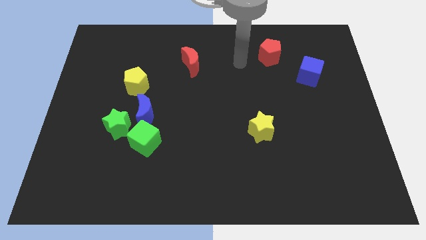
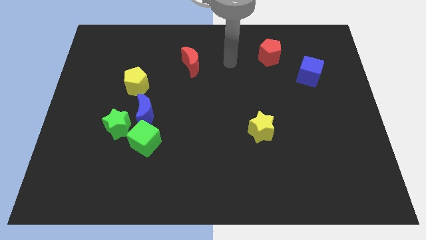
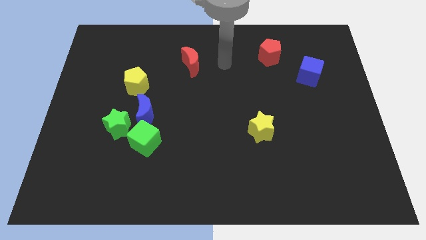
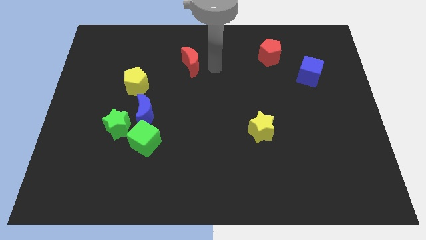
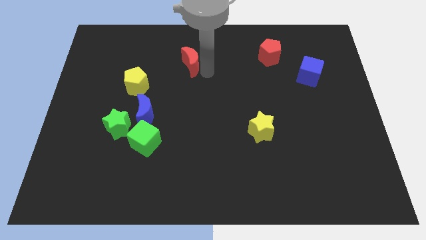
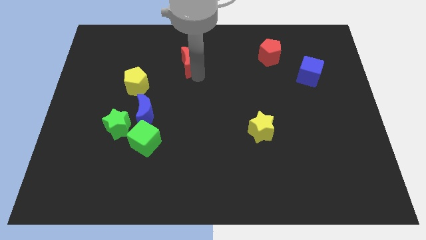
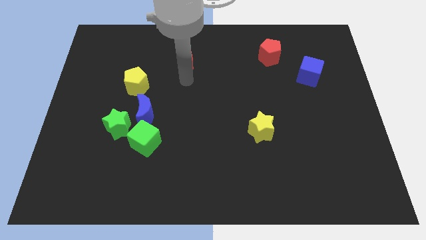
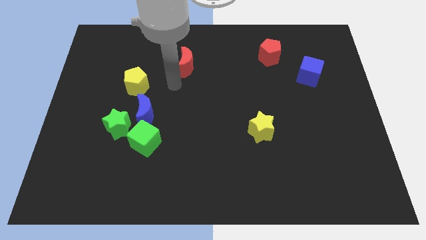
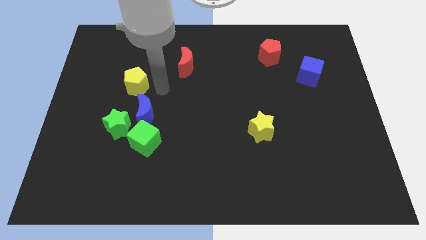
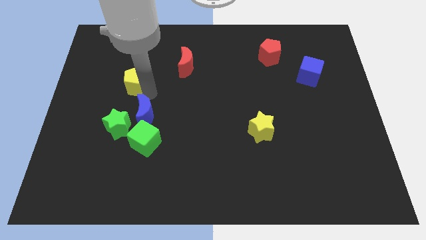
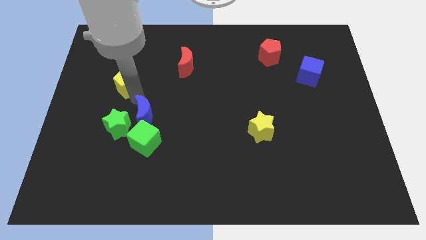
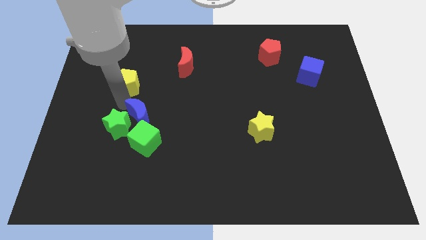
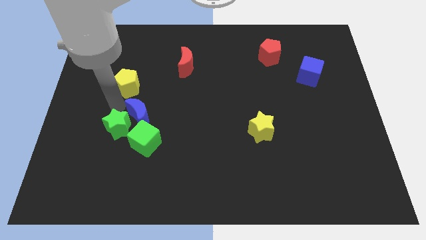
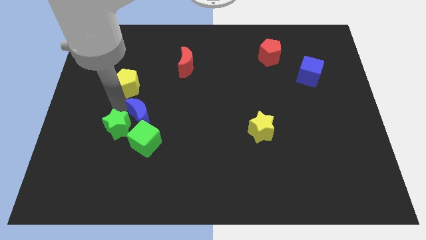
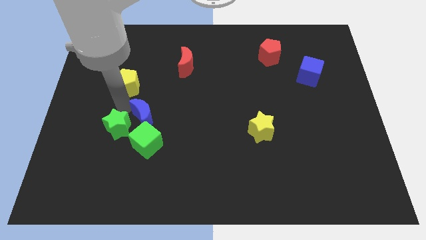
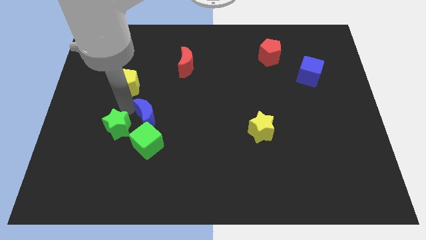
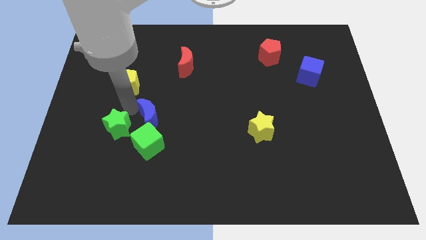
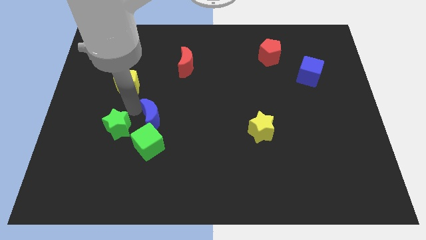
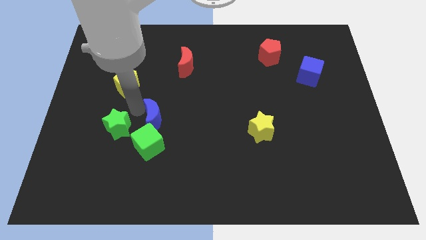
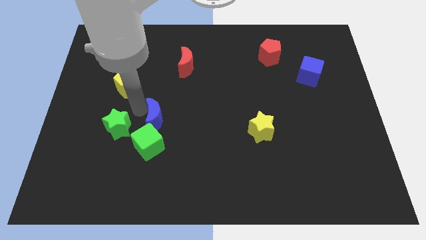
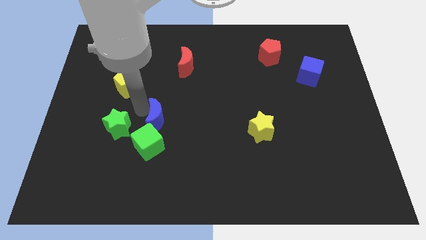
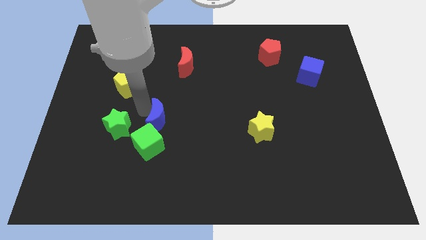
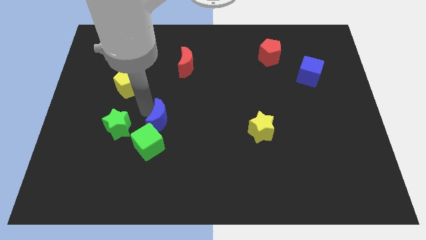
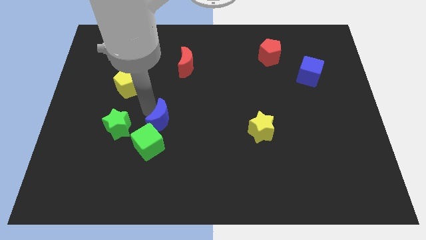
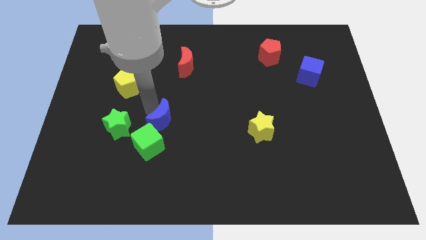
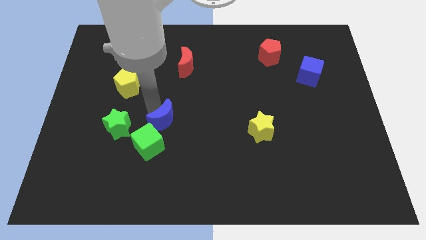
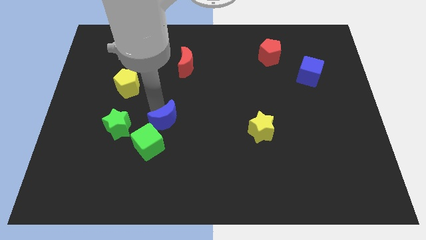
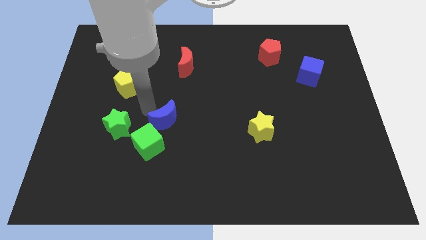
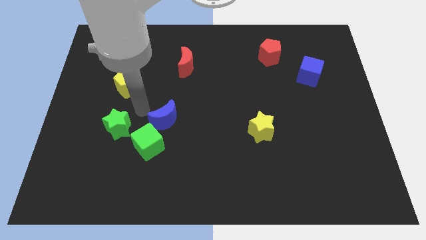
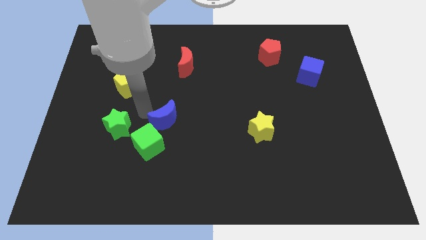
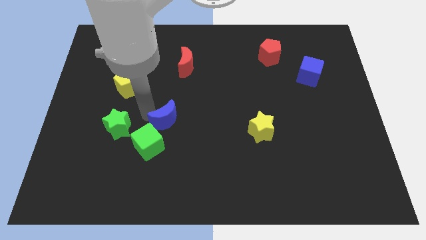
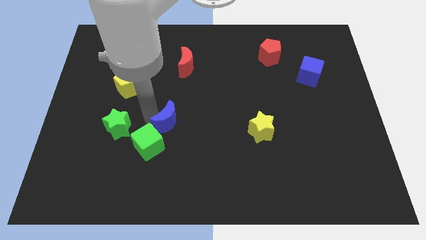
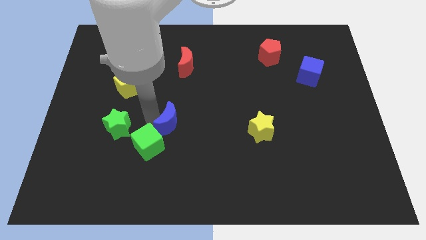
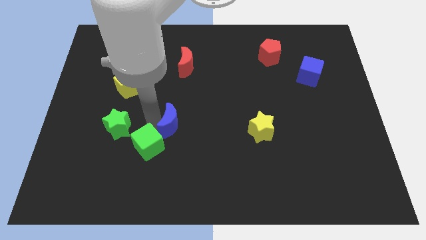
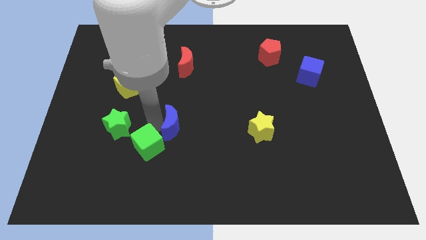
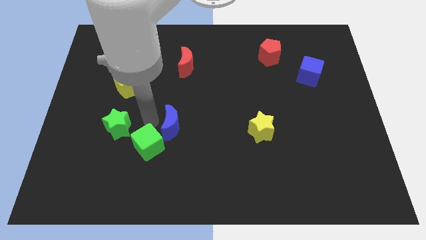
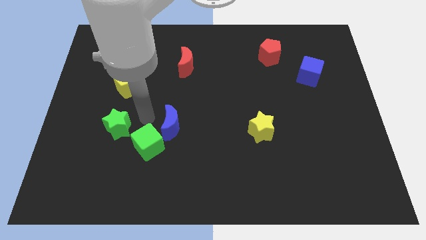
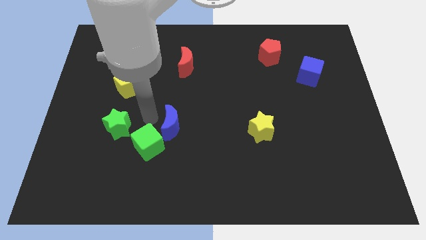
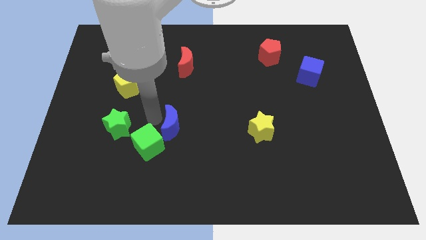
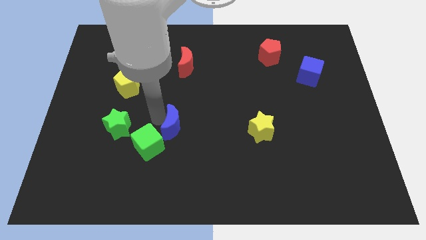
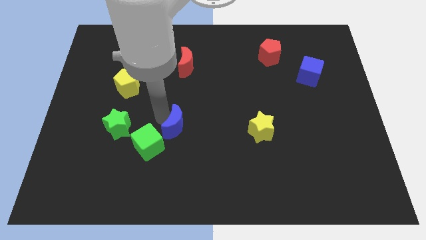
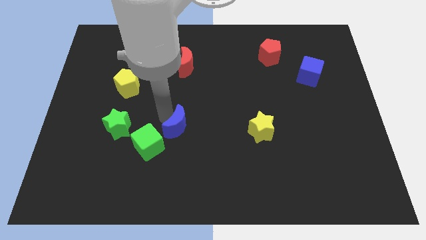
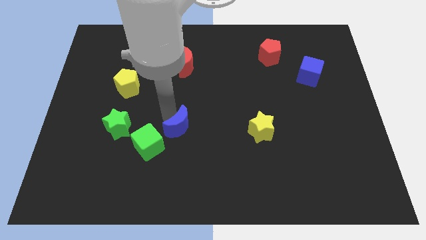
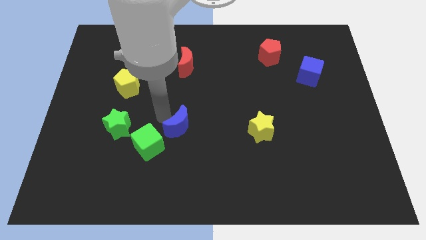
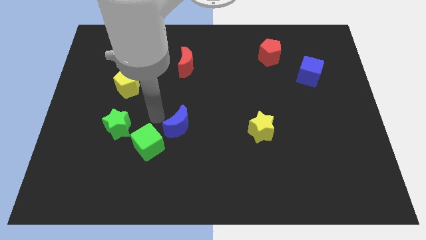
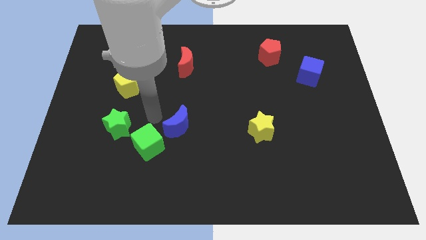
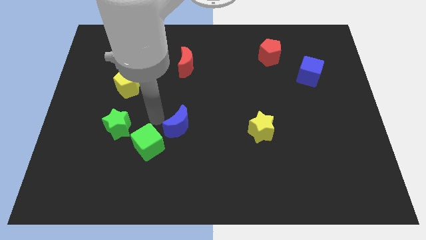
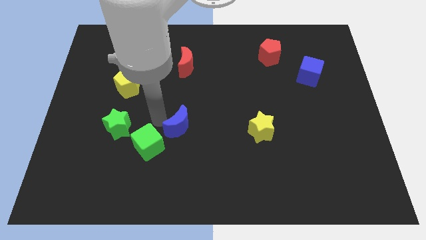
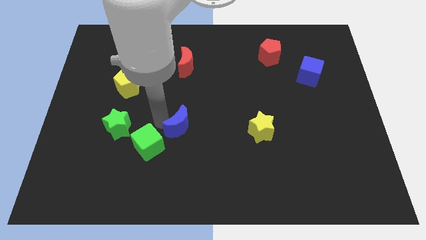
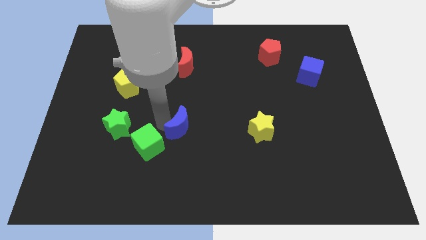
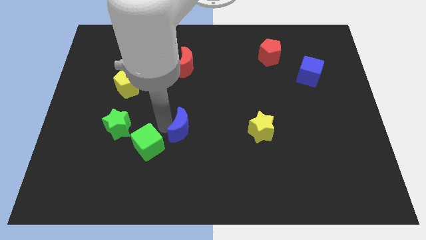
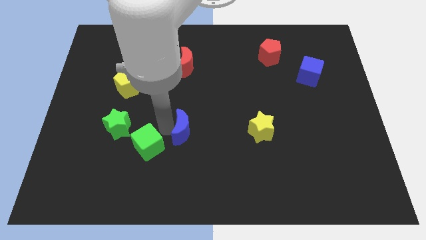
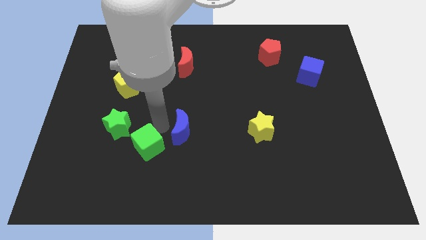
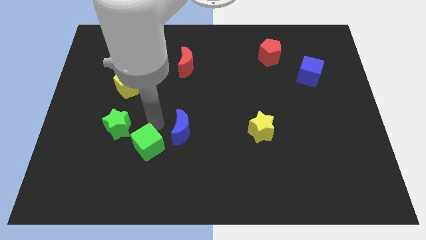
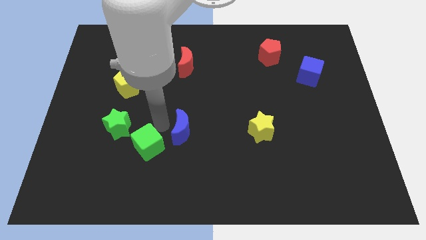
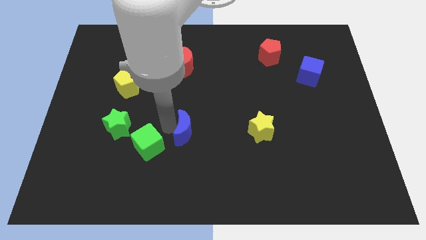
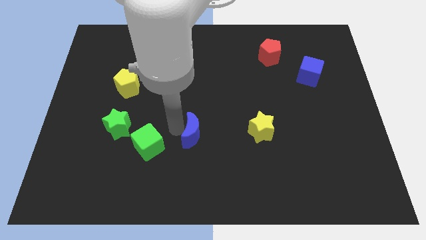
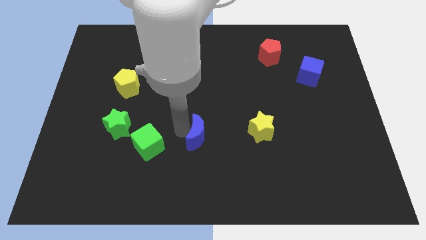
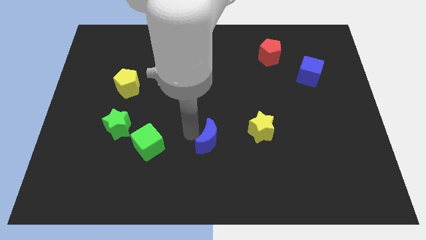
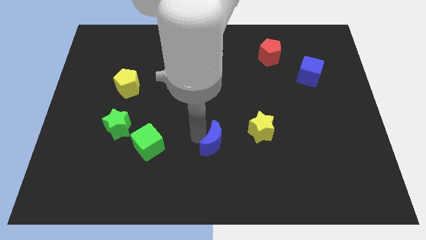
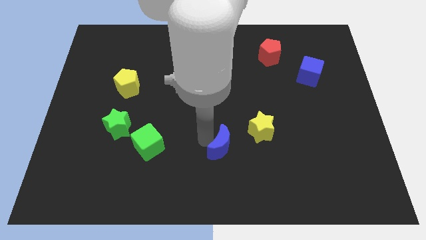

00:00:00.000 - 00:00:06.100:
move the blue moon to the bottom left of the yellow star

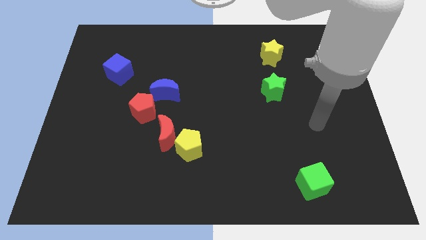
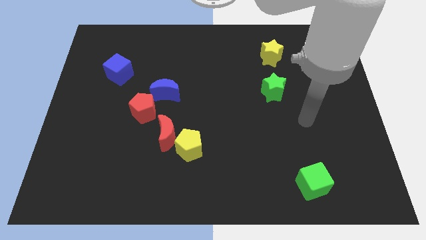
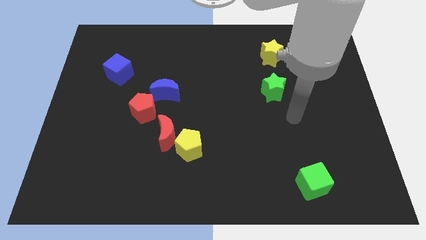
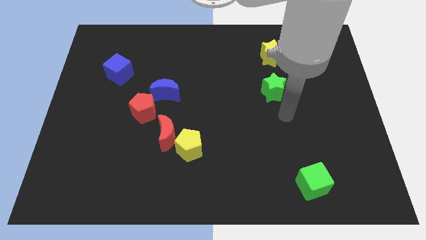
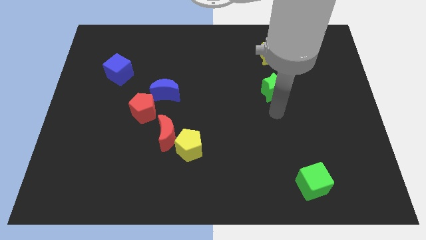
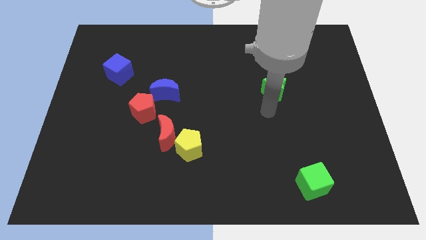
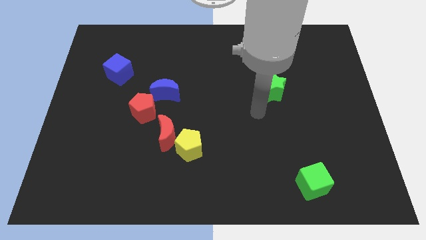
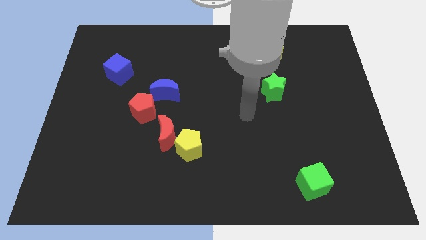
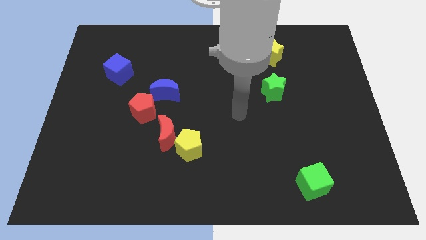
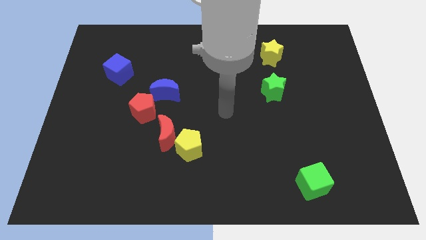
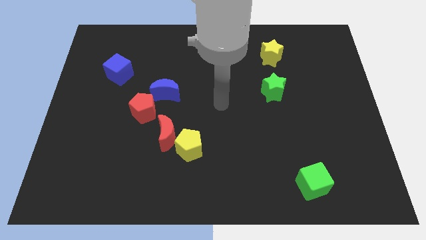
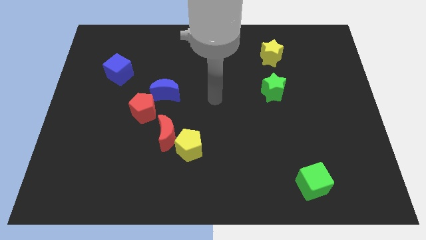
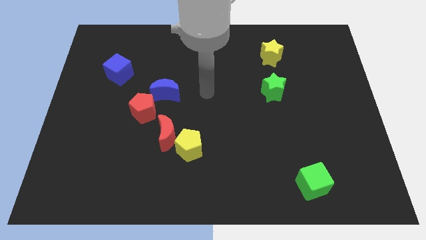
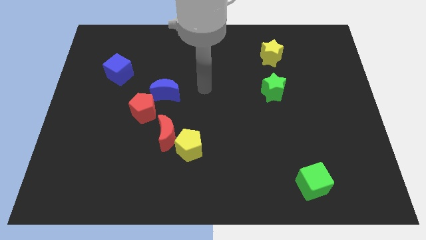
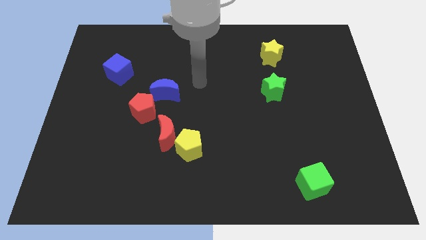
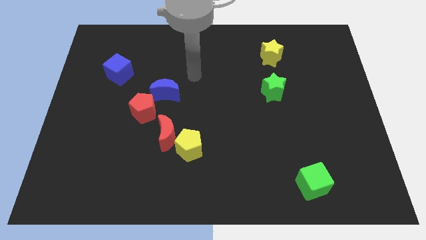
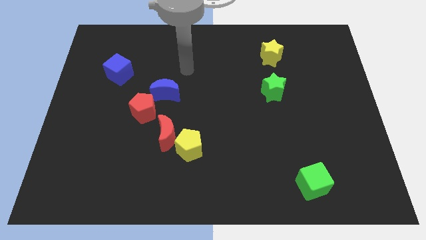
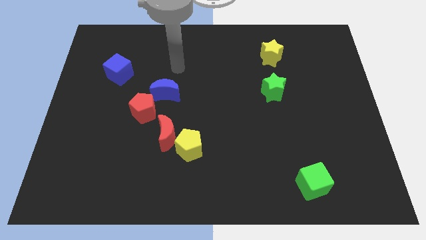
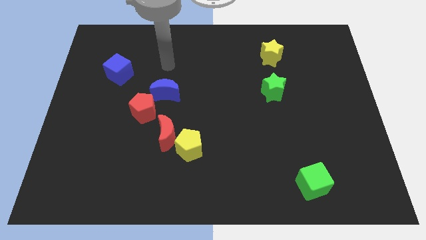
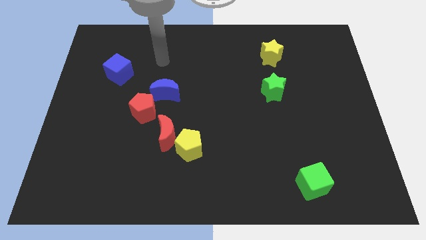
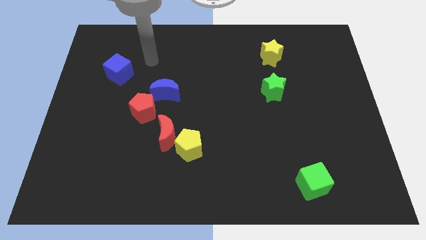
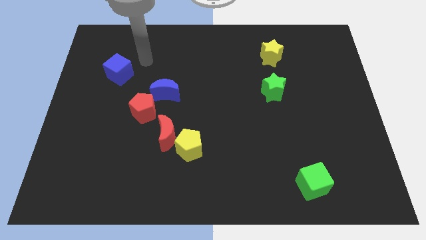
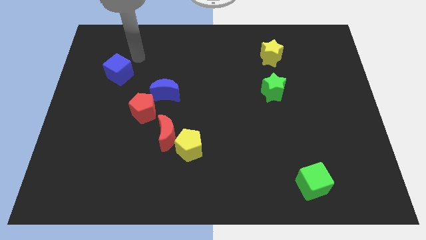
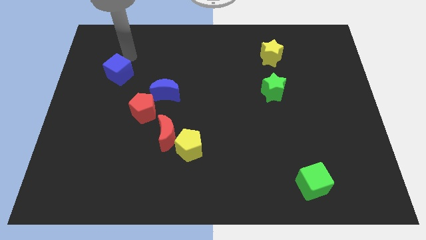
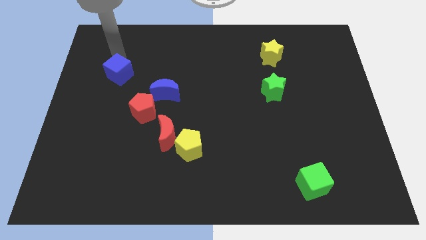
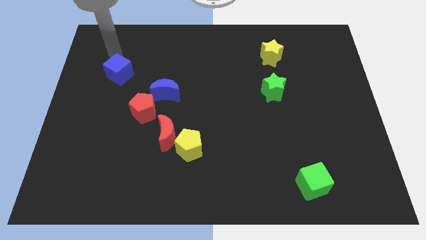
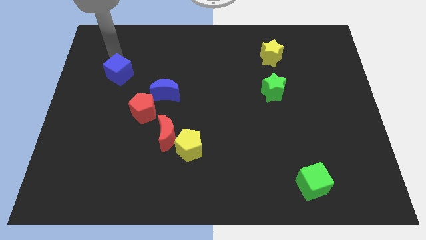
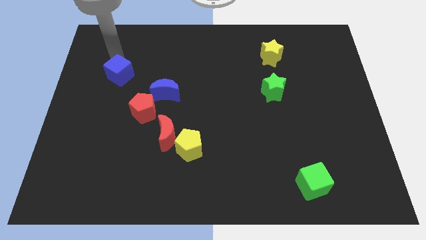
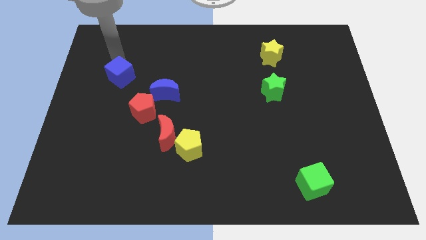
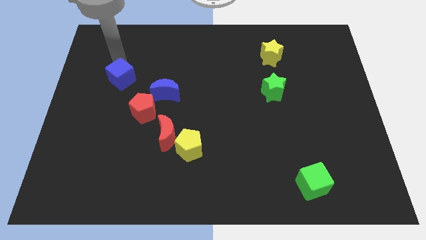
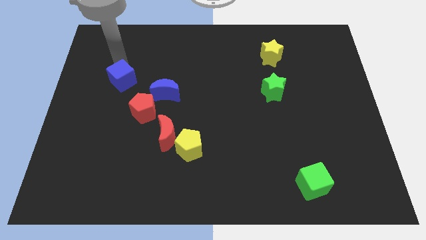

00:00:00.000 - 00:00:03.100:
push the blue cube to the top left of the red pentagon
